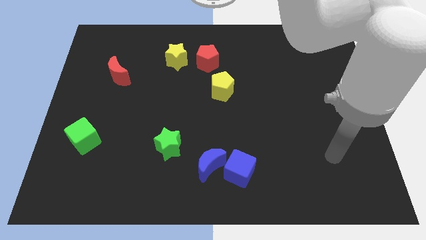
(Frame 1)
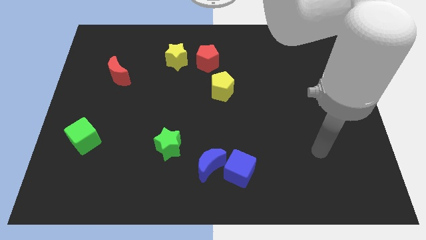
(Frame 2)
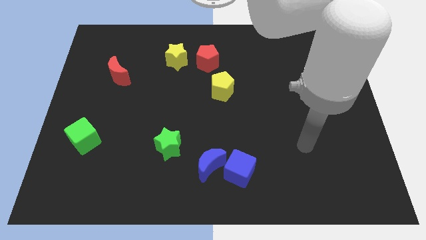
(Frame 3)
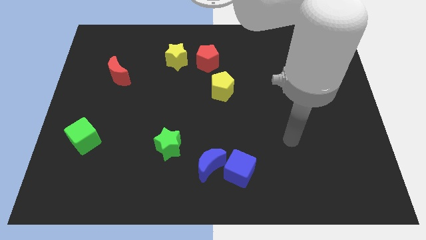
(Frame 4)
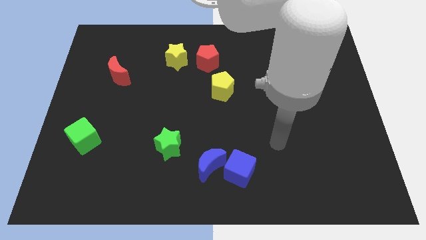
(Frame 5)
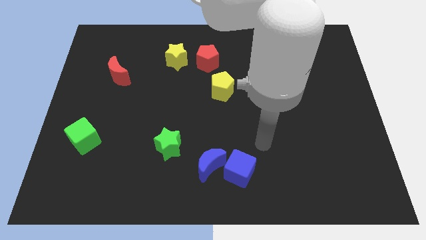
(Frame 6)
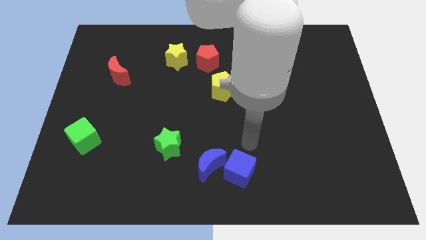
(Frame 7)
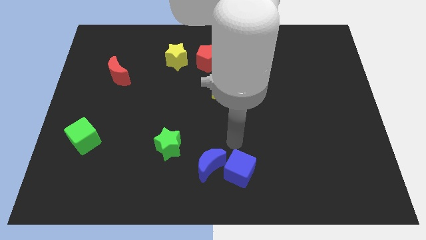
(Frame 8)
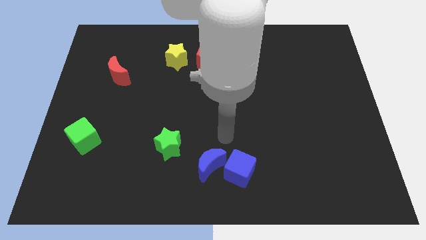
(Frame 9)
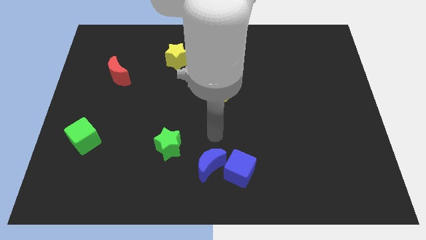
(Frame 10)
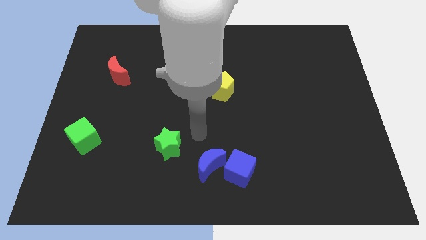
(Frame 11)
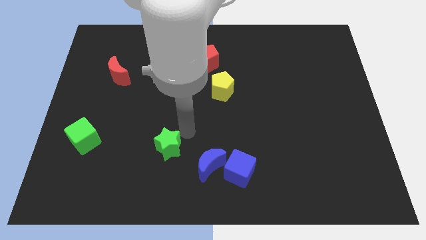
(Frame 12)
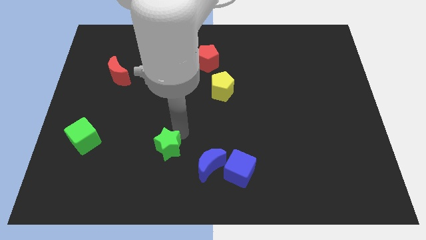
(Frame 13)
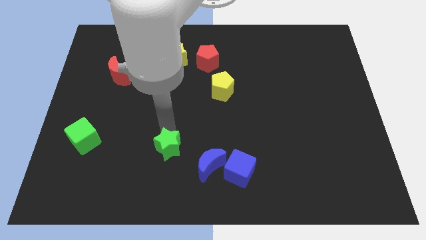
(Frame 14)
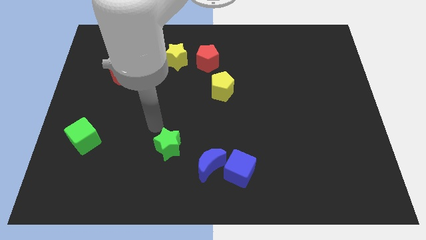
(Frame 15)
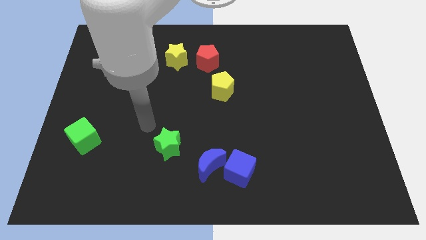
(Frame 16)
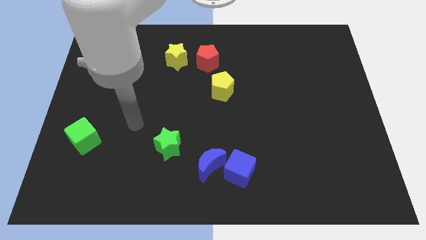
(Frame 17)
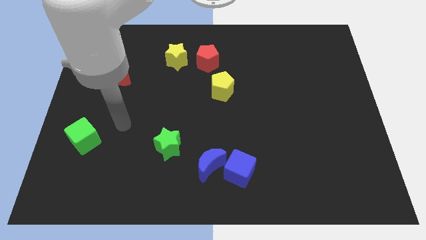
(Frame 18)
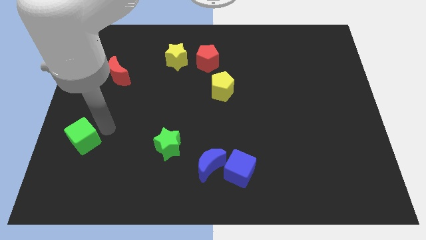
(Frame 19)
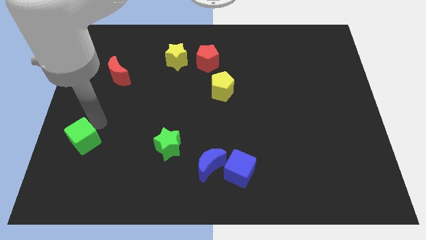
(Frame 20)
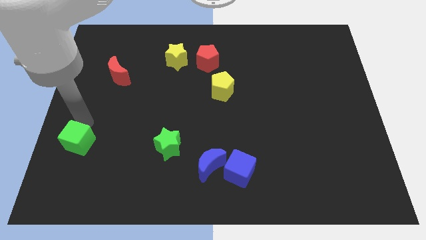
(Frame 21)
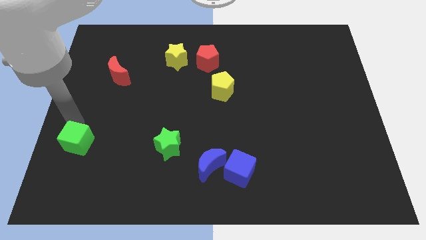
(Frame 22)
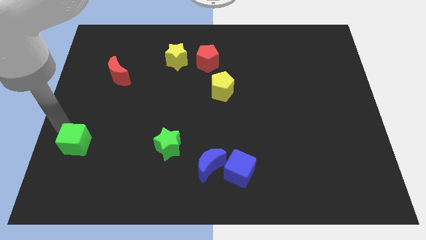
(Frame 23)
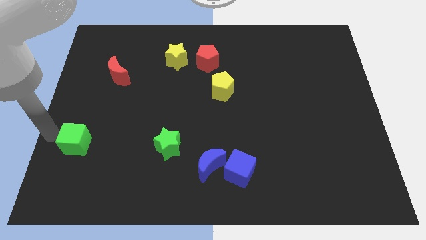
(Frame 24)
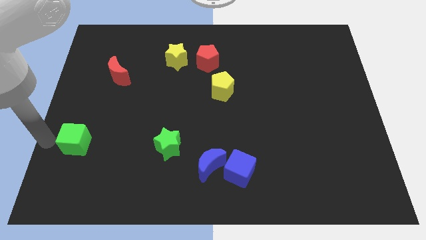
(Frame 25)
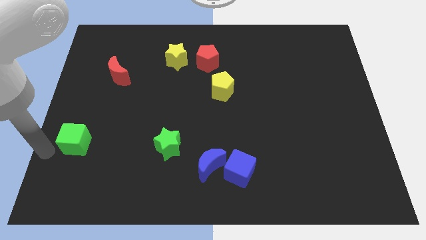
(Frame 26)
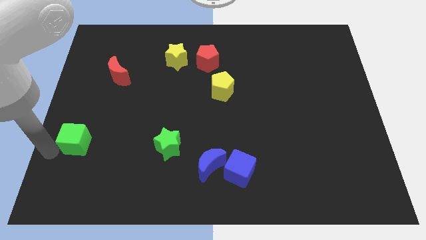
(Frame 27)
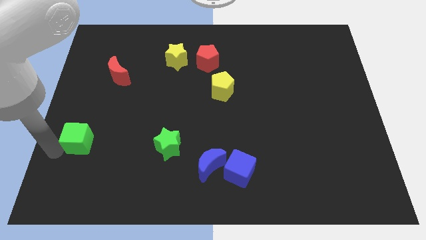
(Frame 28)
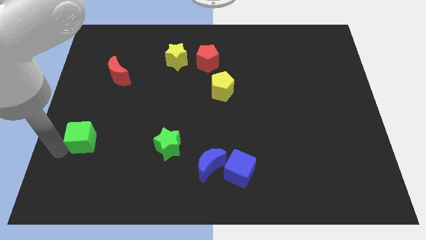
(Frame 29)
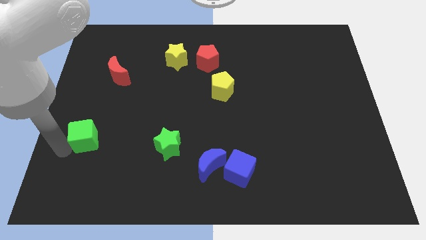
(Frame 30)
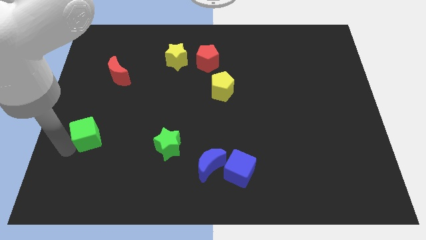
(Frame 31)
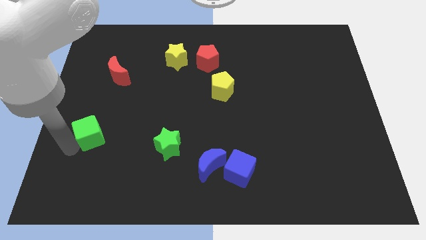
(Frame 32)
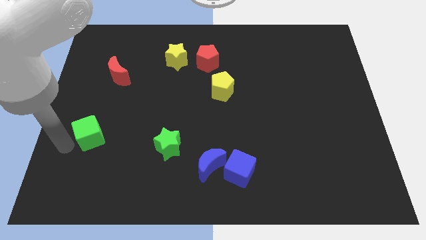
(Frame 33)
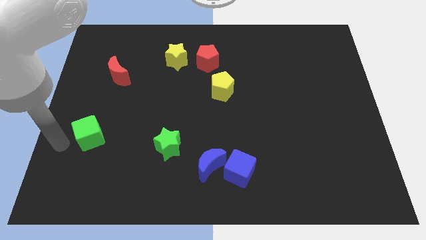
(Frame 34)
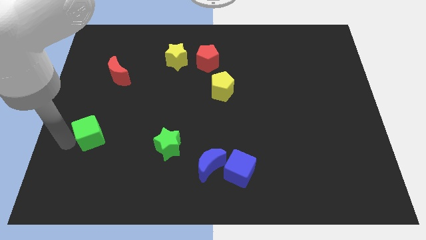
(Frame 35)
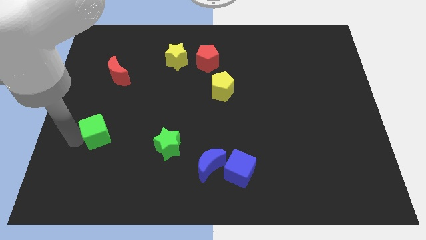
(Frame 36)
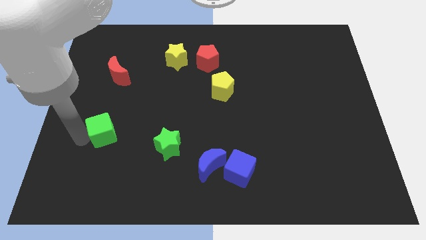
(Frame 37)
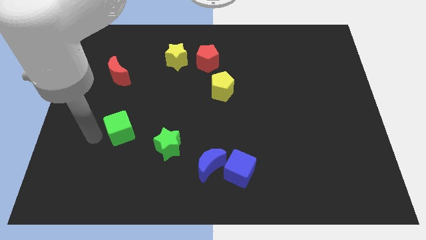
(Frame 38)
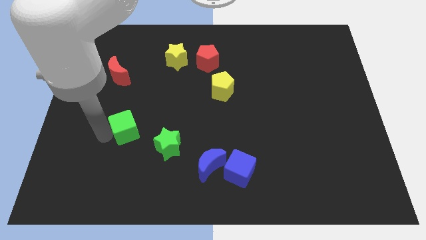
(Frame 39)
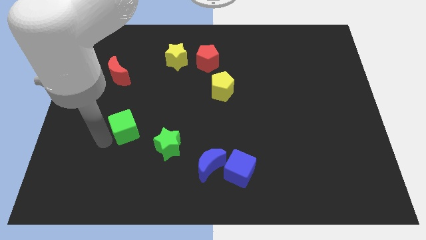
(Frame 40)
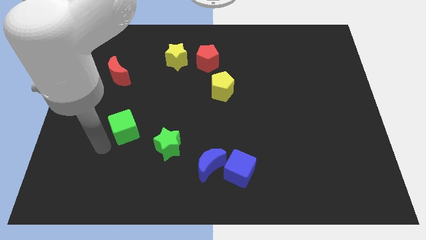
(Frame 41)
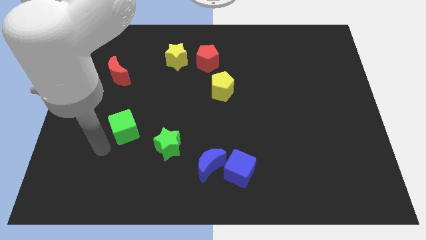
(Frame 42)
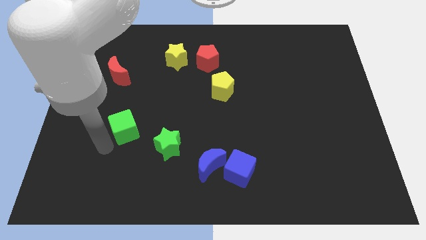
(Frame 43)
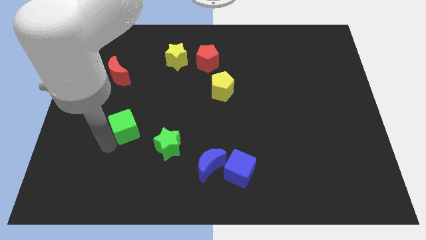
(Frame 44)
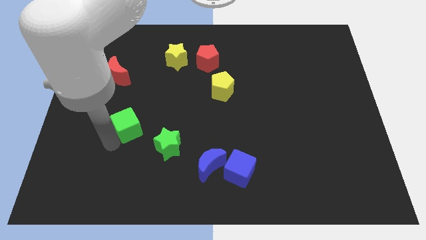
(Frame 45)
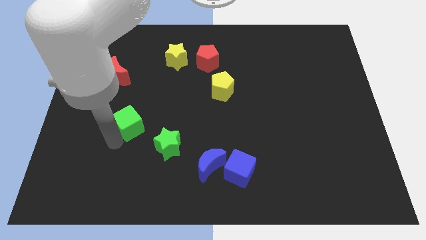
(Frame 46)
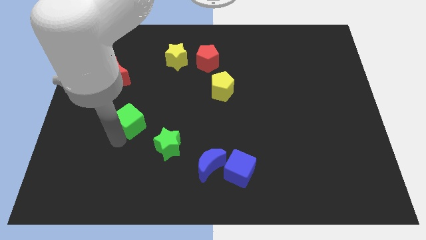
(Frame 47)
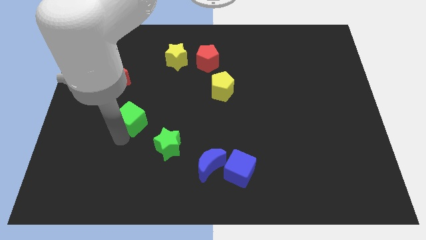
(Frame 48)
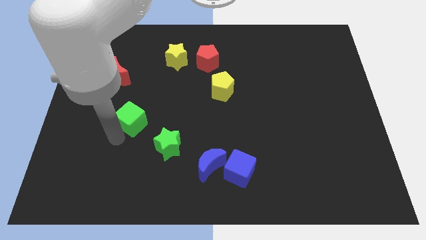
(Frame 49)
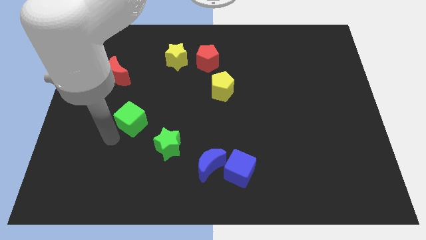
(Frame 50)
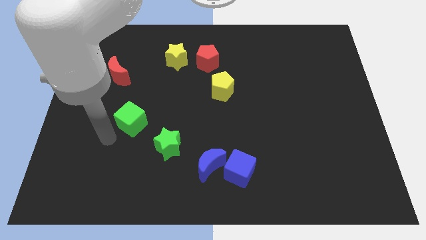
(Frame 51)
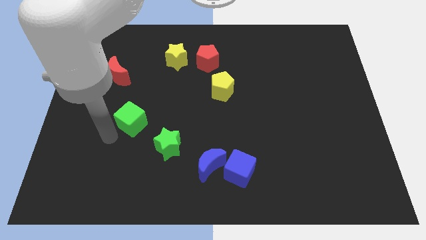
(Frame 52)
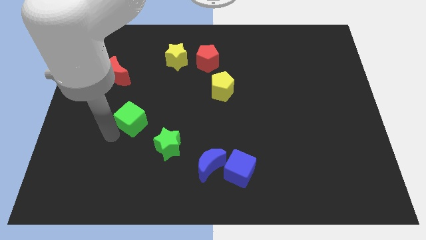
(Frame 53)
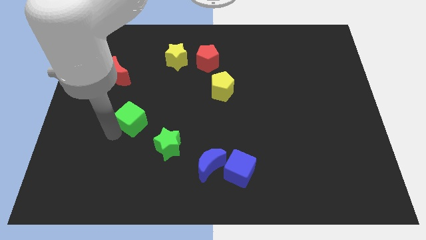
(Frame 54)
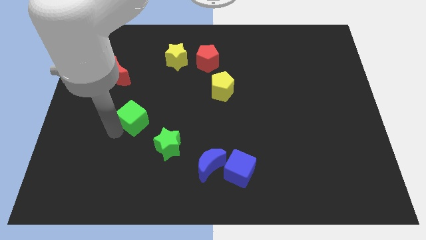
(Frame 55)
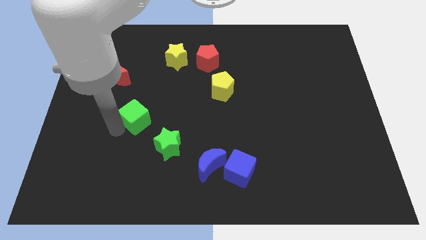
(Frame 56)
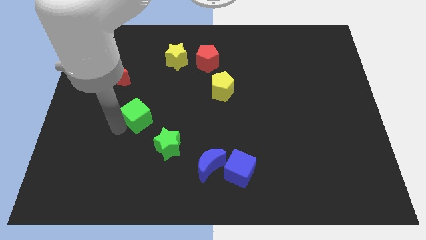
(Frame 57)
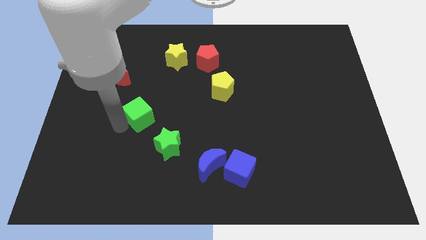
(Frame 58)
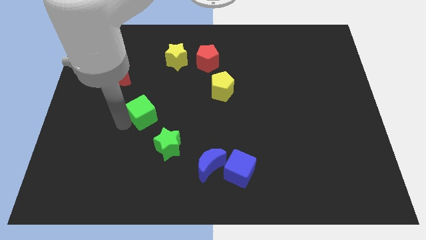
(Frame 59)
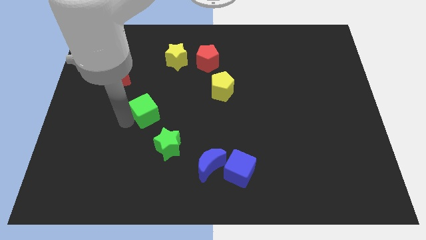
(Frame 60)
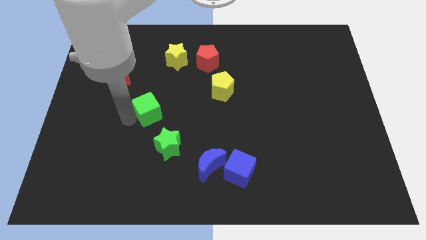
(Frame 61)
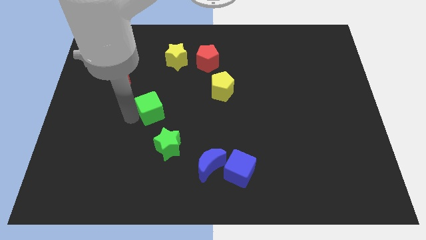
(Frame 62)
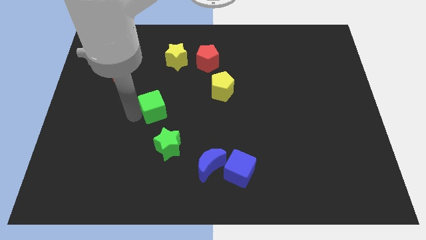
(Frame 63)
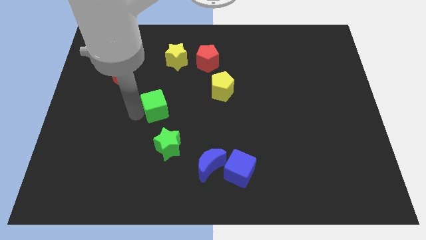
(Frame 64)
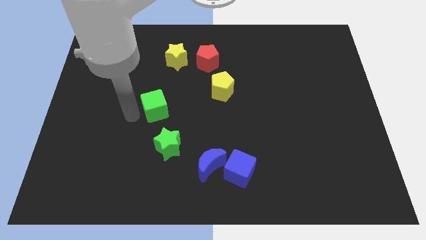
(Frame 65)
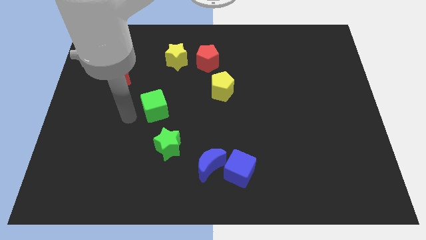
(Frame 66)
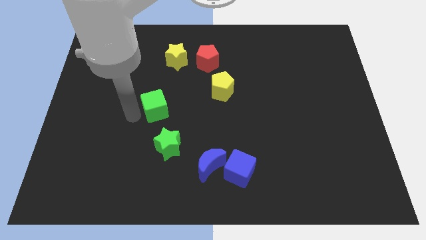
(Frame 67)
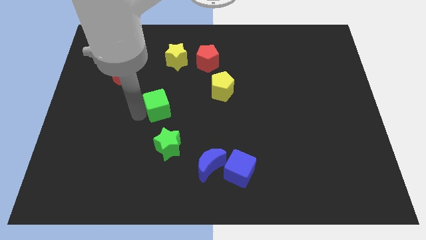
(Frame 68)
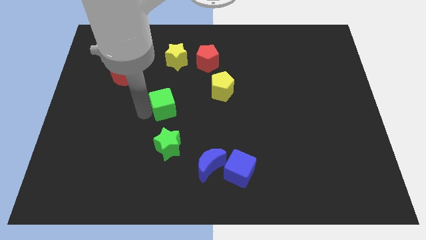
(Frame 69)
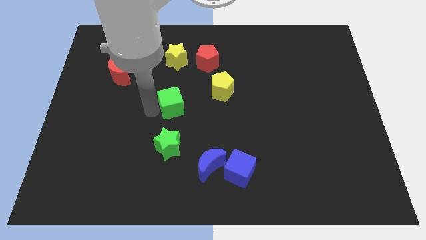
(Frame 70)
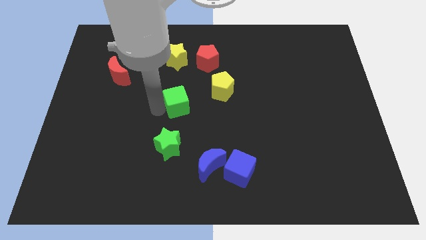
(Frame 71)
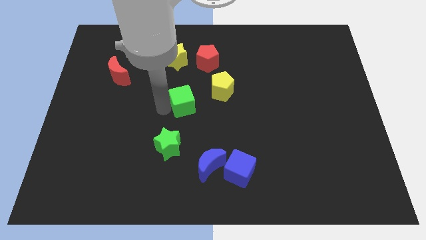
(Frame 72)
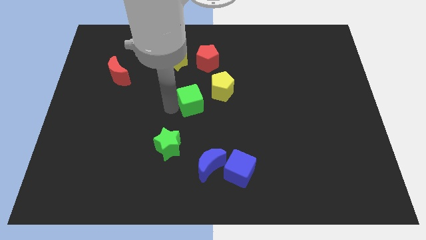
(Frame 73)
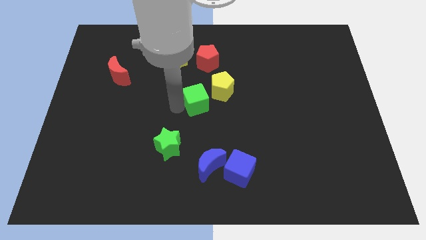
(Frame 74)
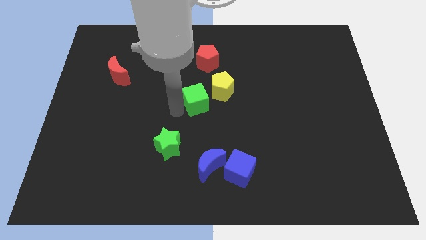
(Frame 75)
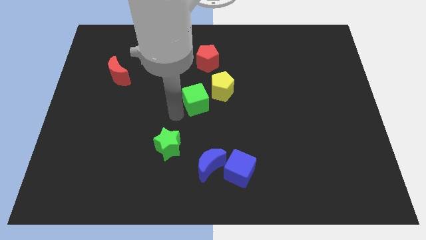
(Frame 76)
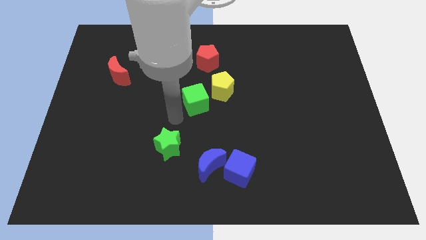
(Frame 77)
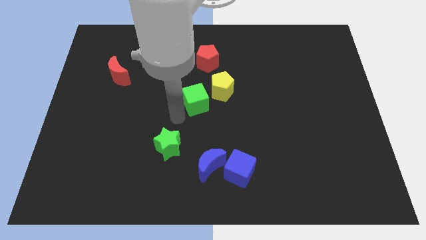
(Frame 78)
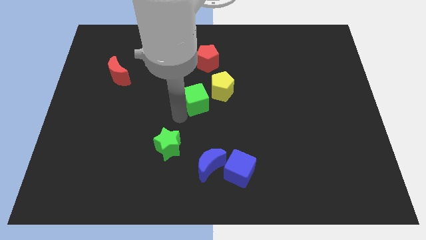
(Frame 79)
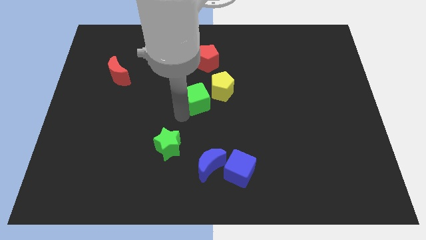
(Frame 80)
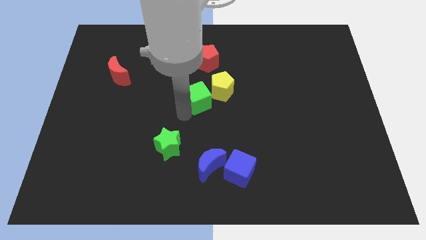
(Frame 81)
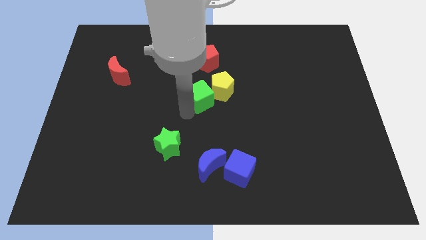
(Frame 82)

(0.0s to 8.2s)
slide the green cube next to the yellow pentagon
